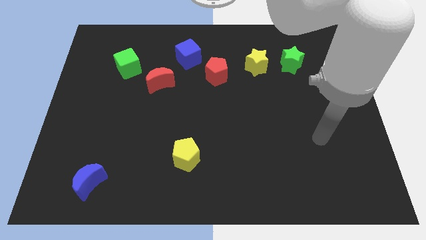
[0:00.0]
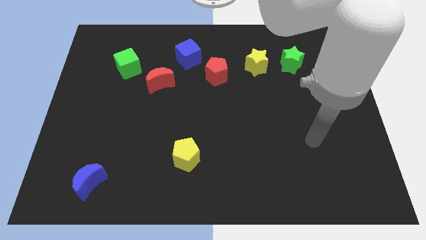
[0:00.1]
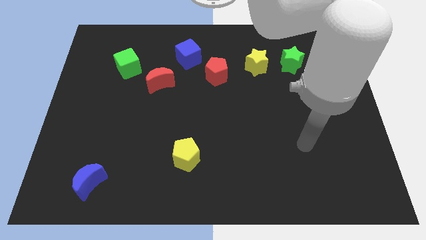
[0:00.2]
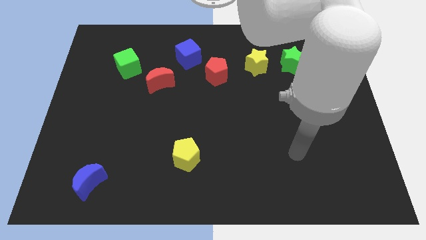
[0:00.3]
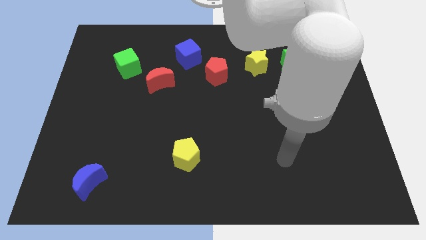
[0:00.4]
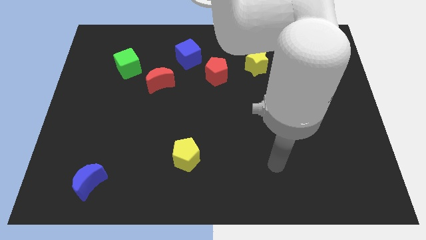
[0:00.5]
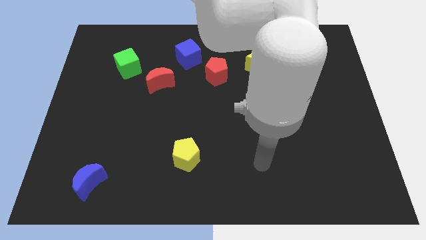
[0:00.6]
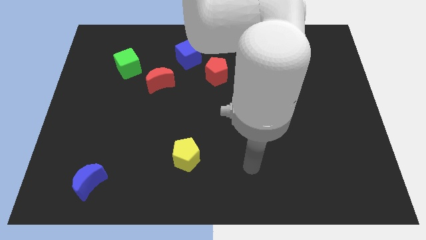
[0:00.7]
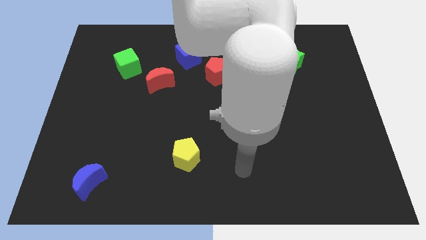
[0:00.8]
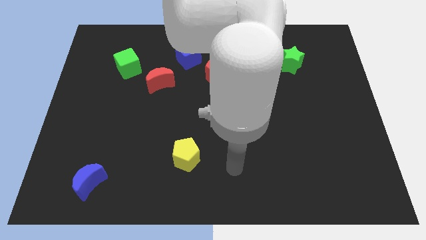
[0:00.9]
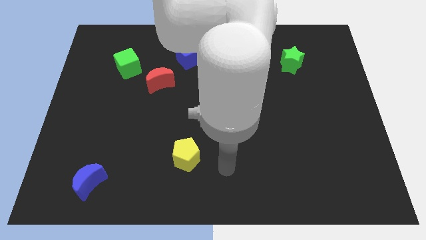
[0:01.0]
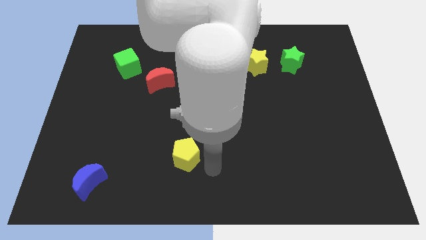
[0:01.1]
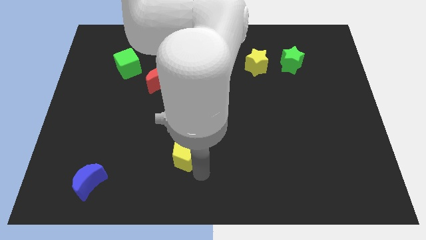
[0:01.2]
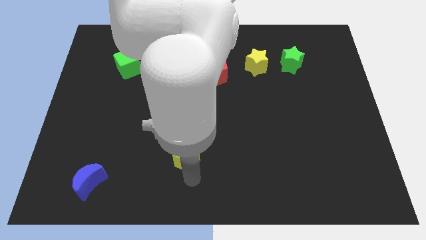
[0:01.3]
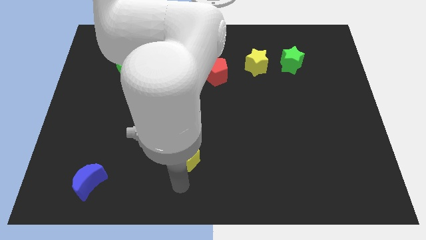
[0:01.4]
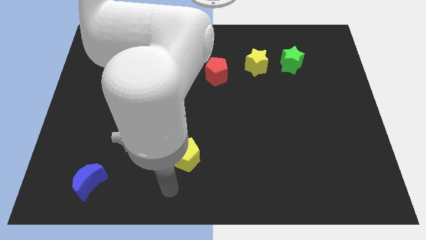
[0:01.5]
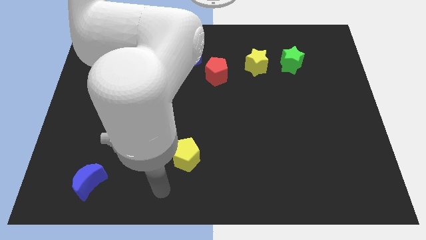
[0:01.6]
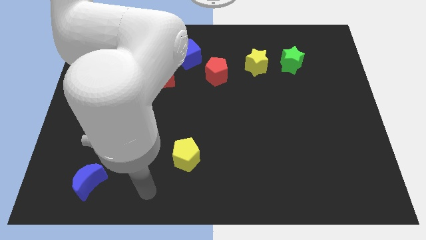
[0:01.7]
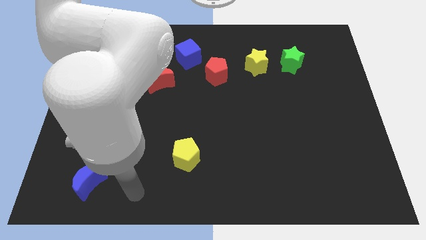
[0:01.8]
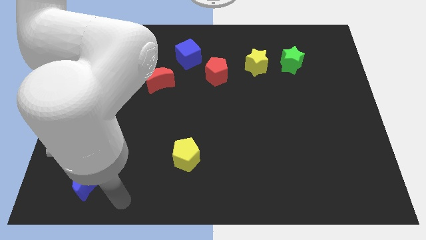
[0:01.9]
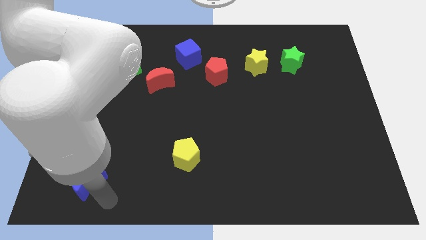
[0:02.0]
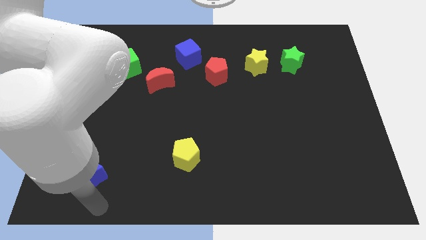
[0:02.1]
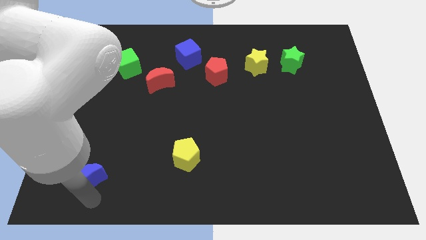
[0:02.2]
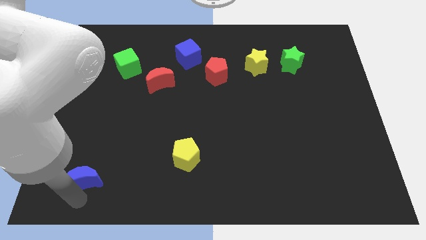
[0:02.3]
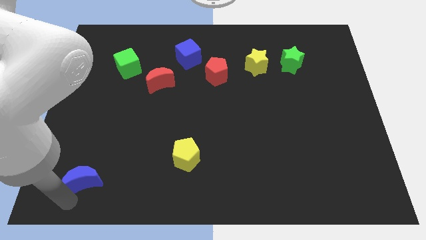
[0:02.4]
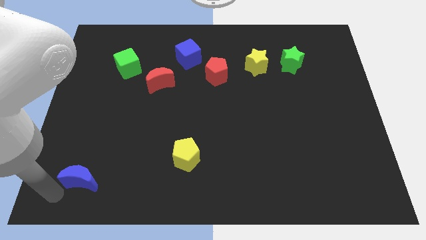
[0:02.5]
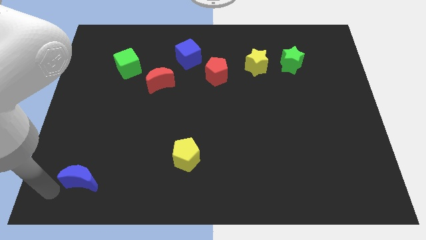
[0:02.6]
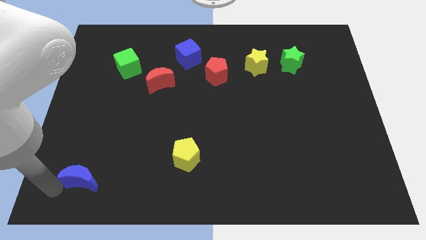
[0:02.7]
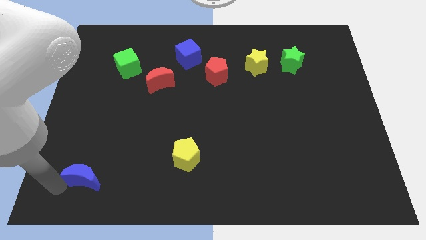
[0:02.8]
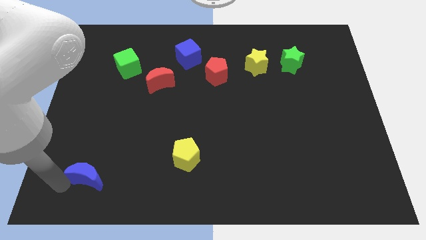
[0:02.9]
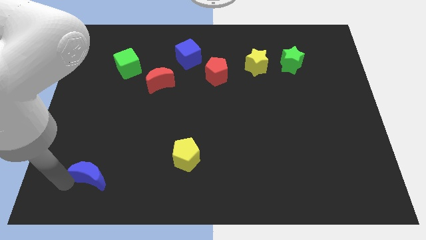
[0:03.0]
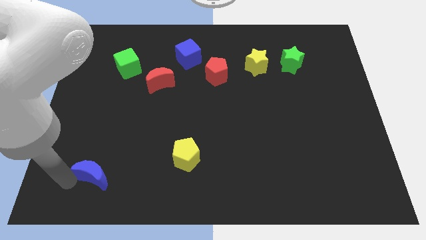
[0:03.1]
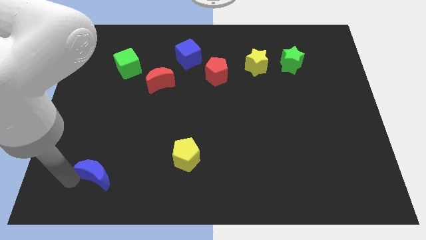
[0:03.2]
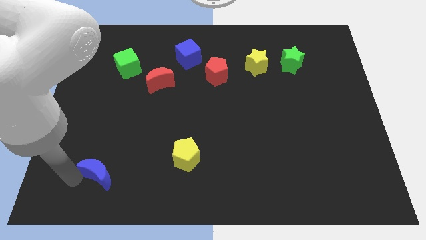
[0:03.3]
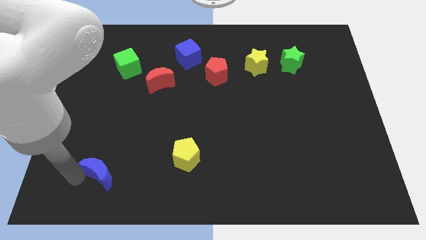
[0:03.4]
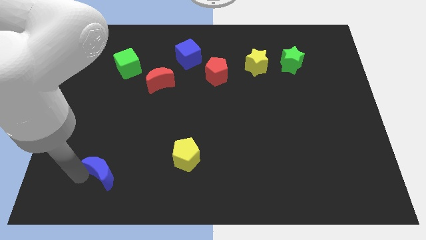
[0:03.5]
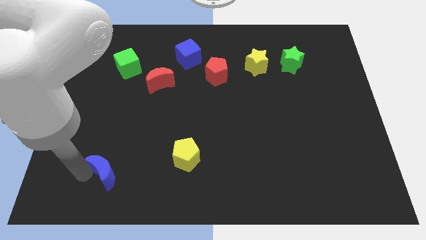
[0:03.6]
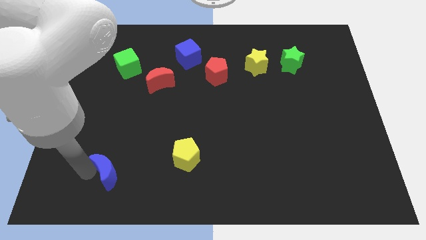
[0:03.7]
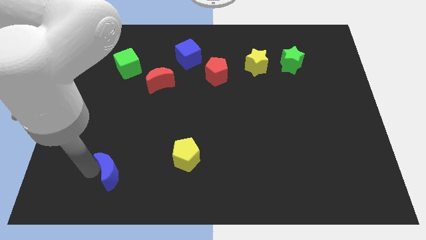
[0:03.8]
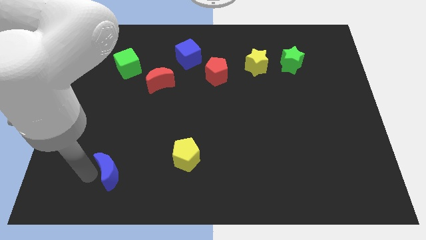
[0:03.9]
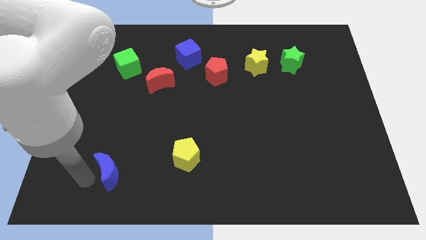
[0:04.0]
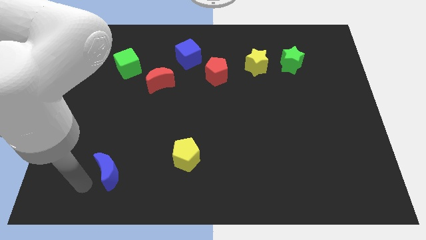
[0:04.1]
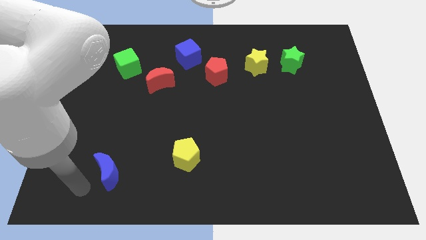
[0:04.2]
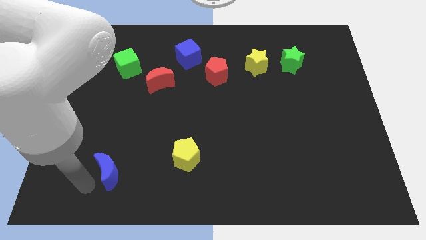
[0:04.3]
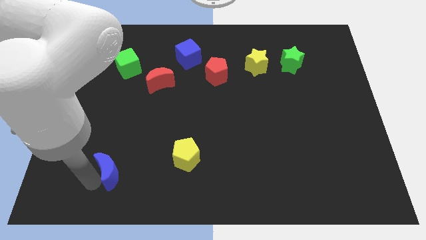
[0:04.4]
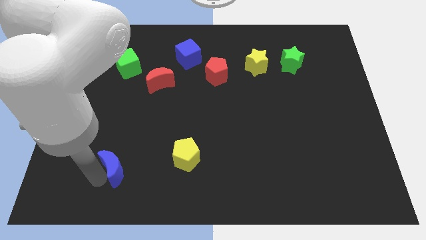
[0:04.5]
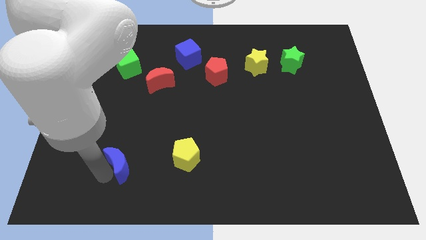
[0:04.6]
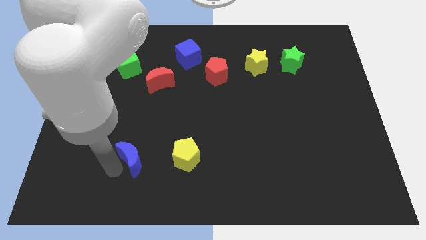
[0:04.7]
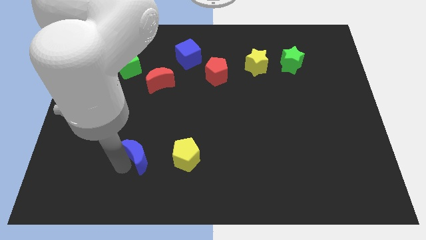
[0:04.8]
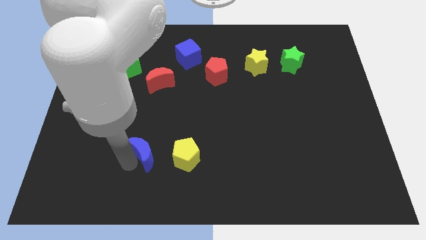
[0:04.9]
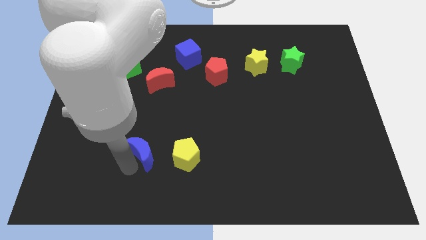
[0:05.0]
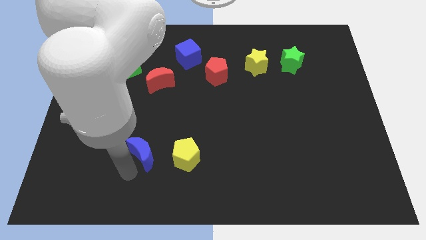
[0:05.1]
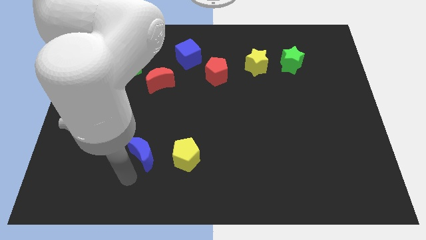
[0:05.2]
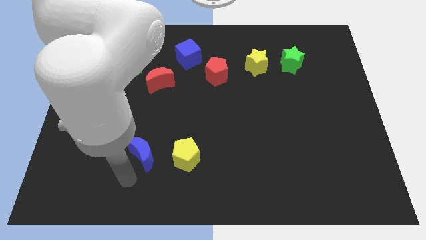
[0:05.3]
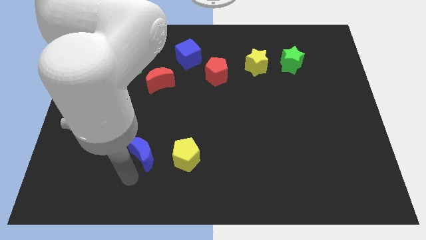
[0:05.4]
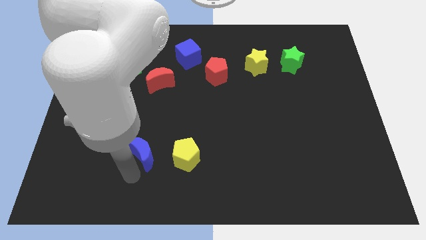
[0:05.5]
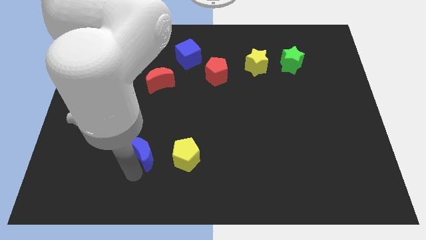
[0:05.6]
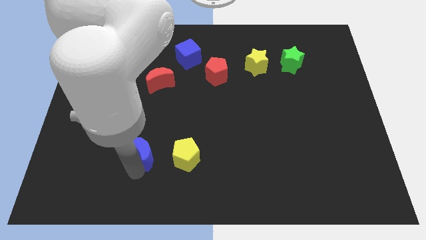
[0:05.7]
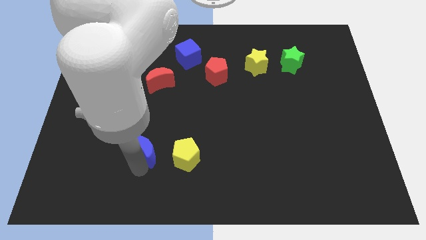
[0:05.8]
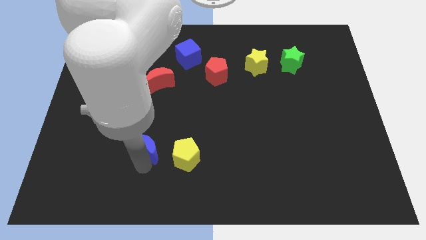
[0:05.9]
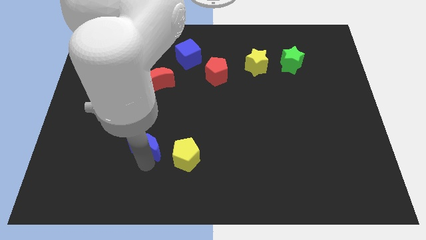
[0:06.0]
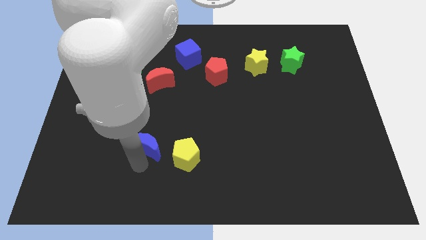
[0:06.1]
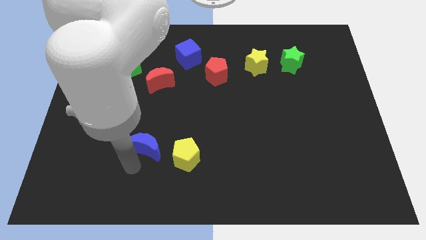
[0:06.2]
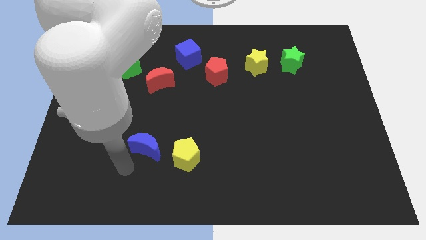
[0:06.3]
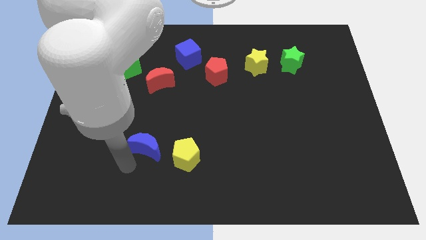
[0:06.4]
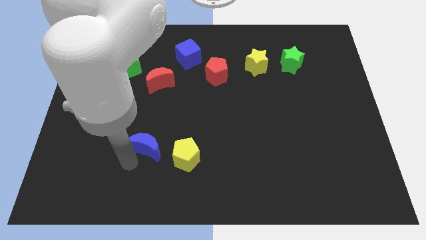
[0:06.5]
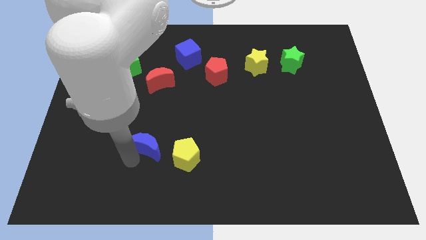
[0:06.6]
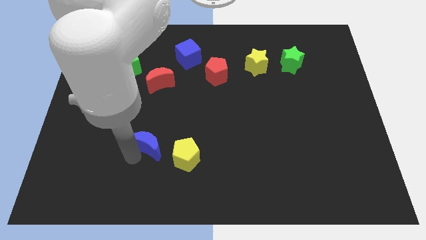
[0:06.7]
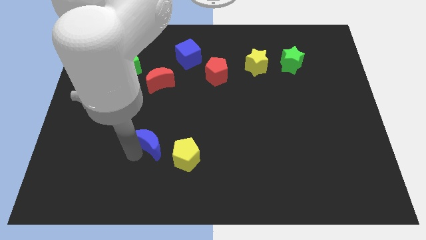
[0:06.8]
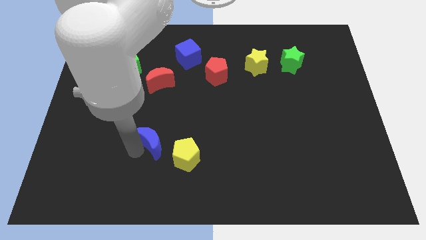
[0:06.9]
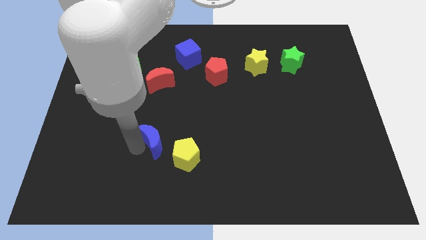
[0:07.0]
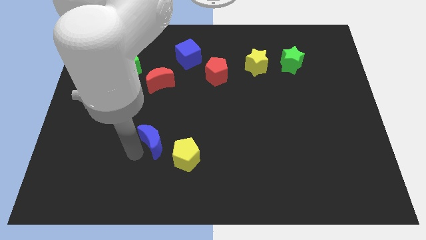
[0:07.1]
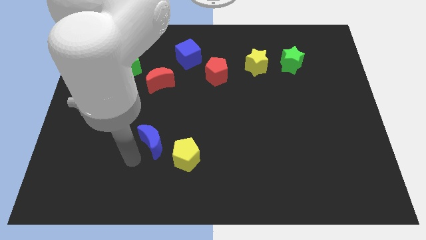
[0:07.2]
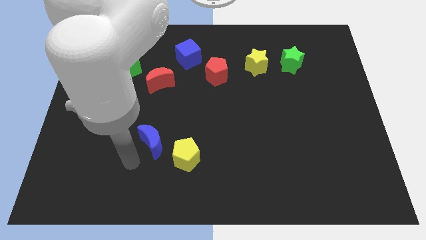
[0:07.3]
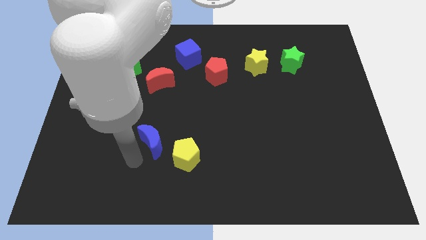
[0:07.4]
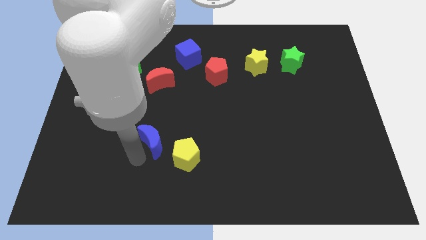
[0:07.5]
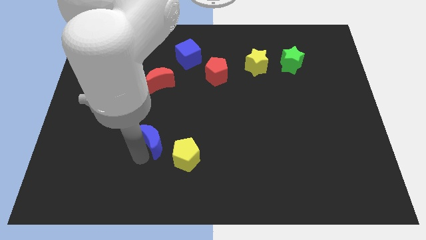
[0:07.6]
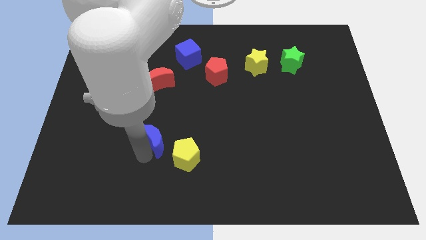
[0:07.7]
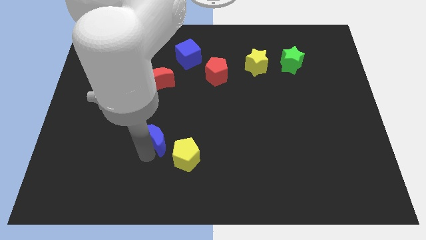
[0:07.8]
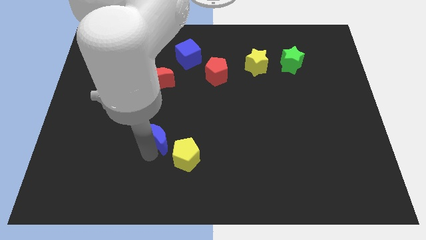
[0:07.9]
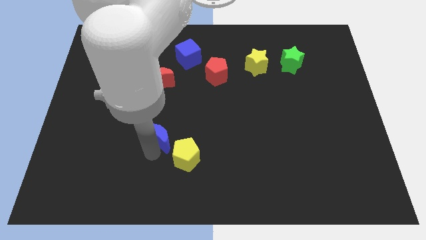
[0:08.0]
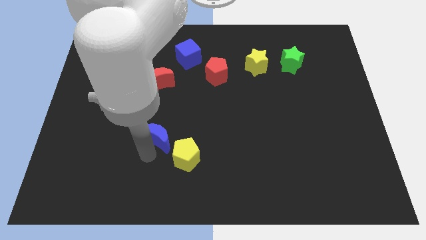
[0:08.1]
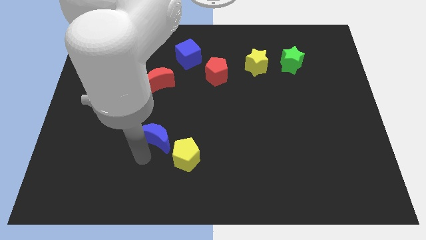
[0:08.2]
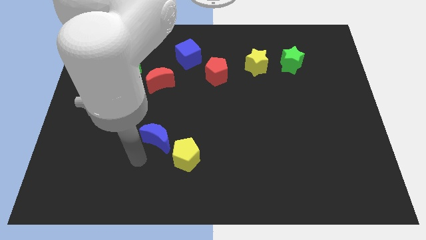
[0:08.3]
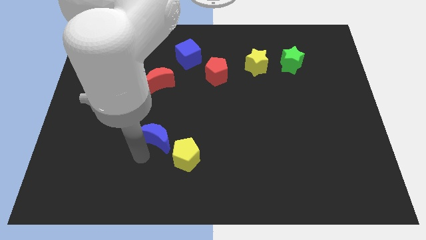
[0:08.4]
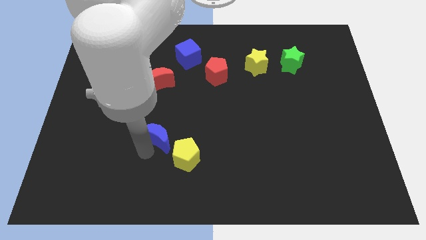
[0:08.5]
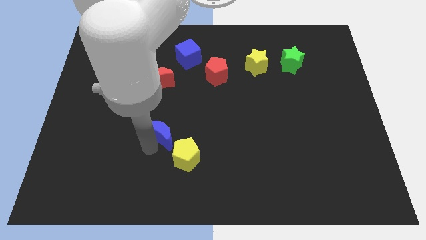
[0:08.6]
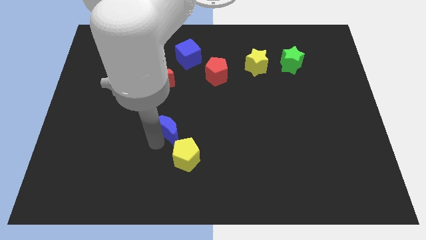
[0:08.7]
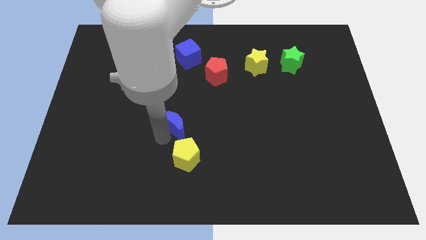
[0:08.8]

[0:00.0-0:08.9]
move the blue moon up and then to the right
